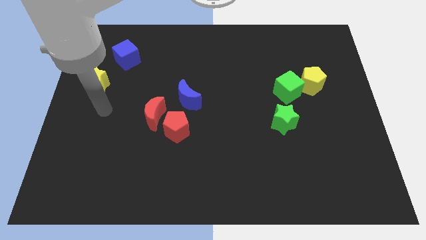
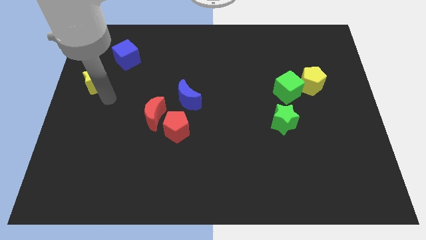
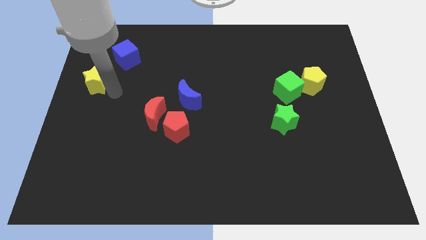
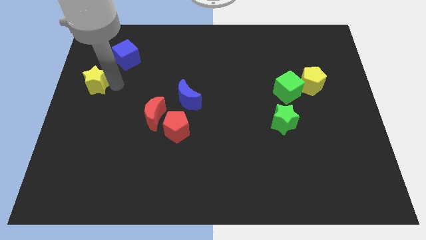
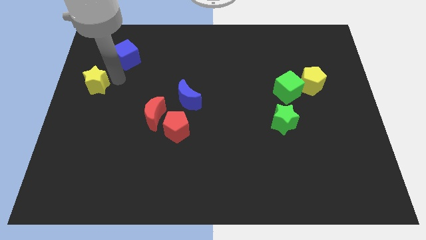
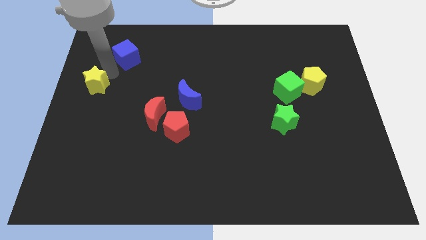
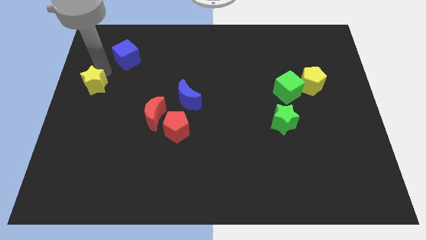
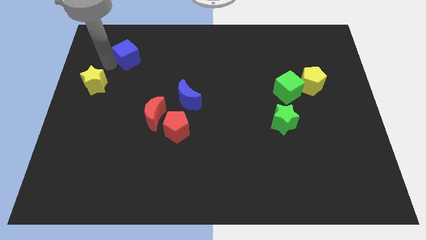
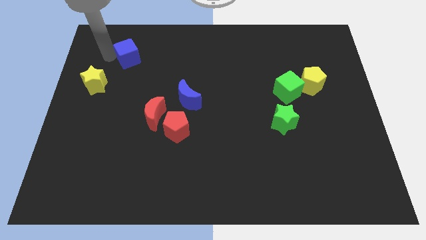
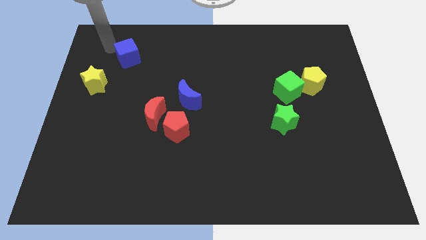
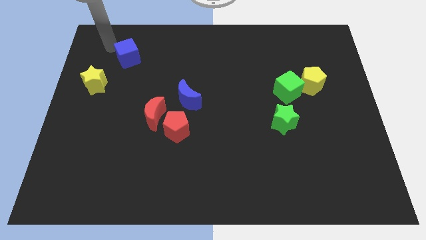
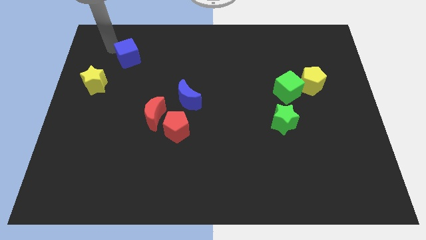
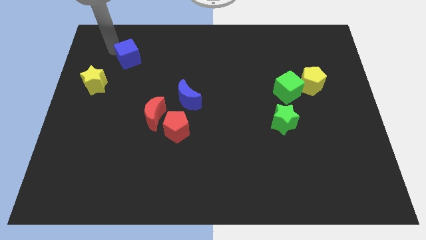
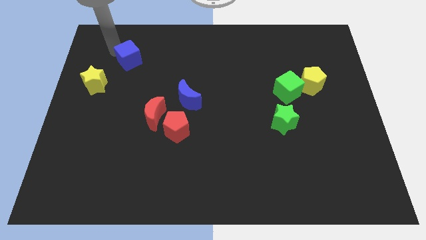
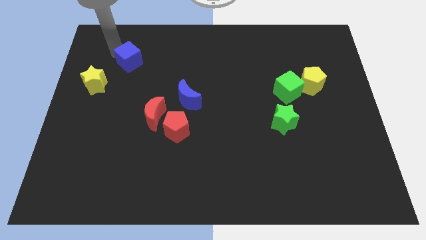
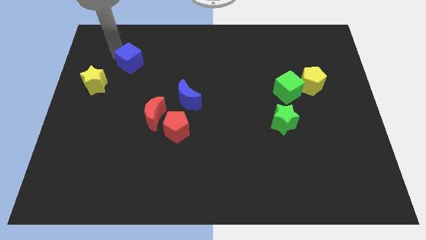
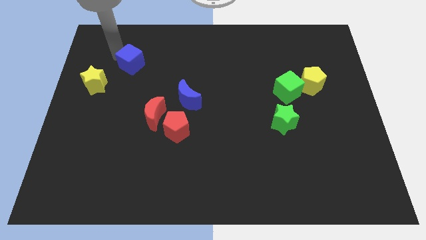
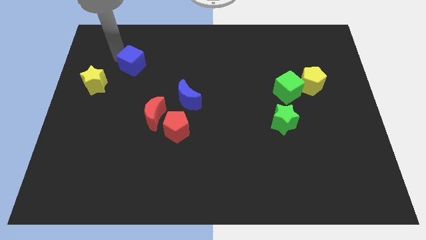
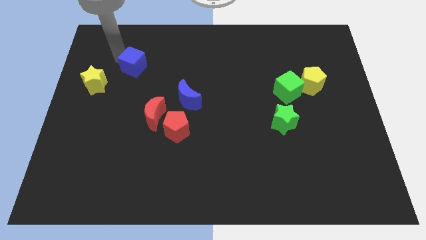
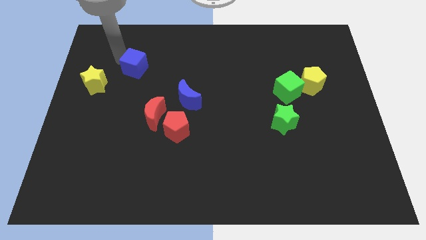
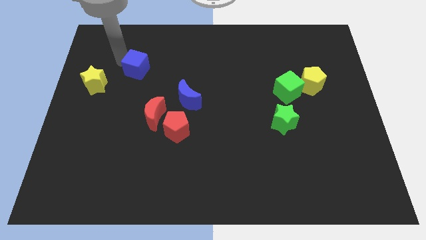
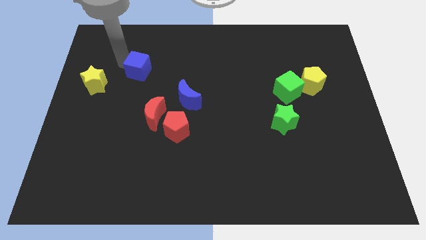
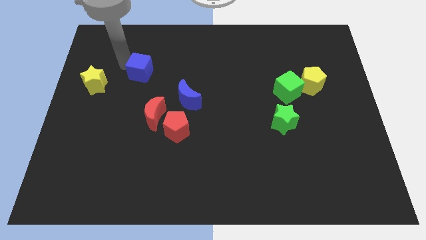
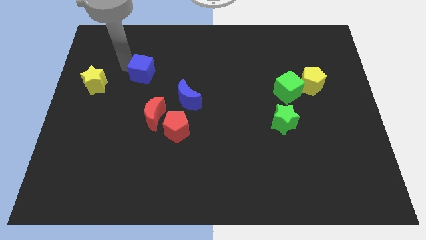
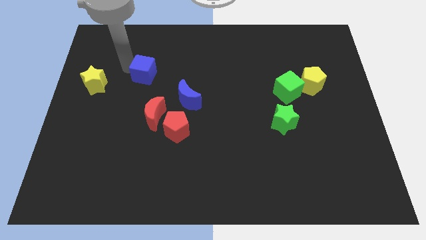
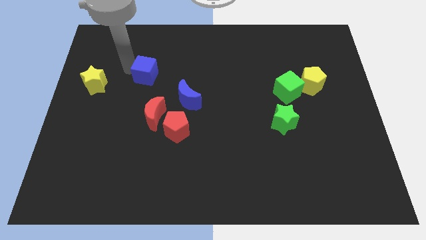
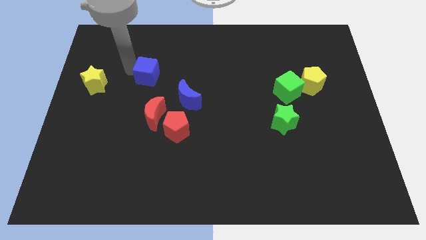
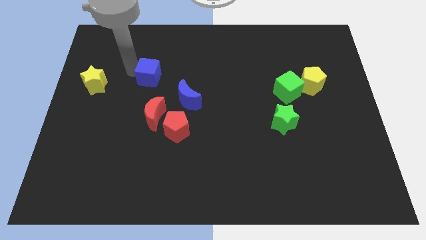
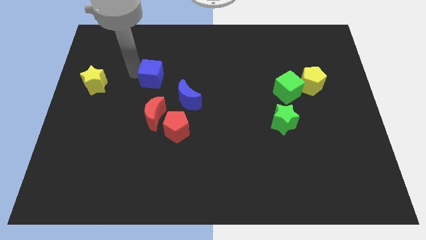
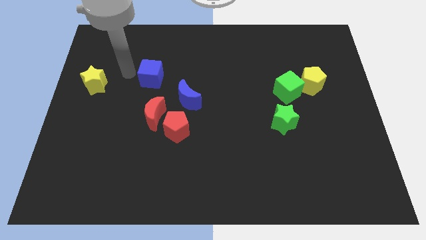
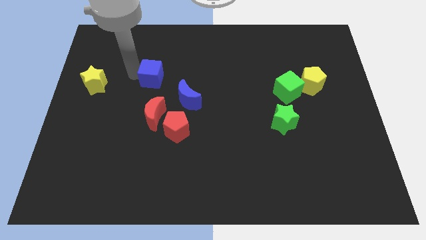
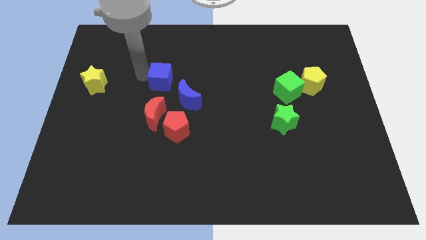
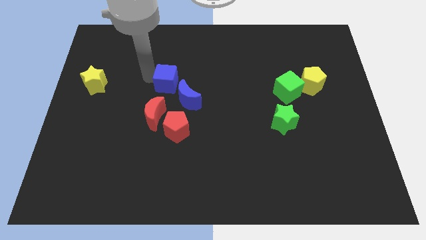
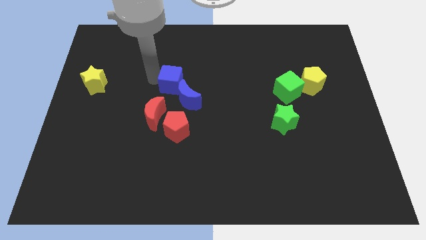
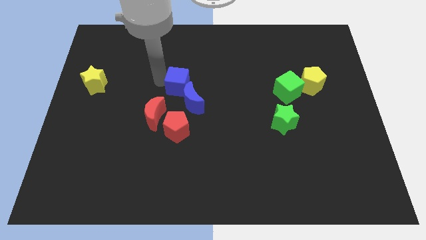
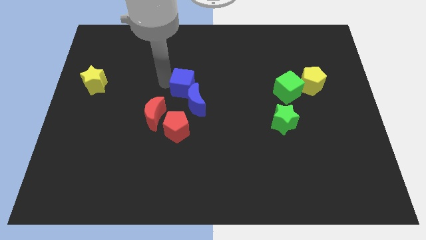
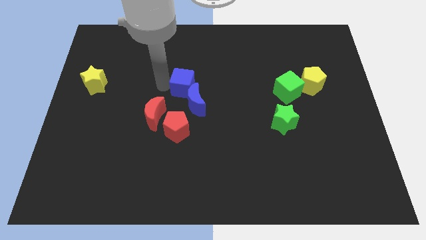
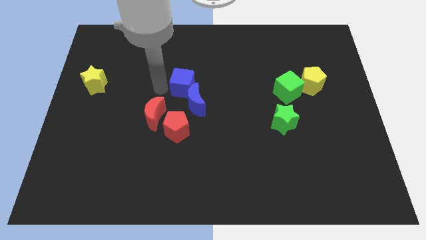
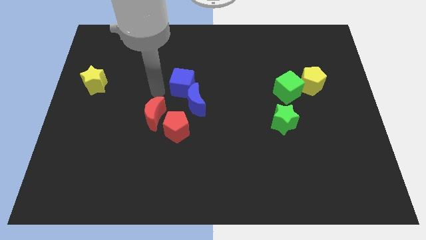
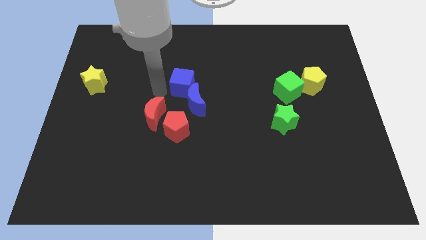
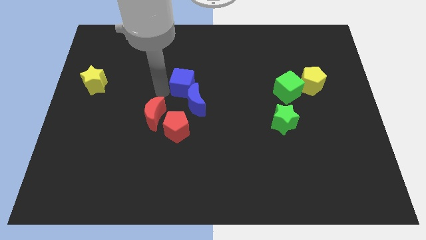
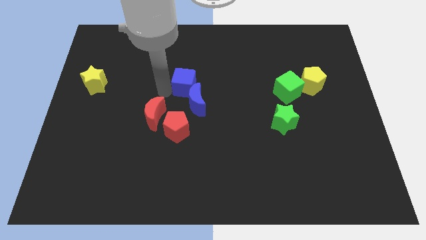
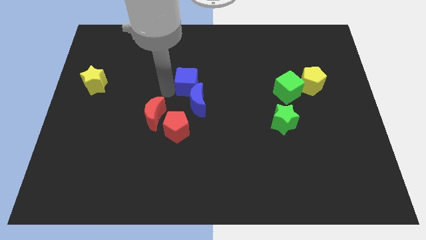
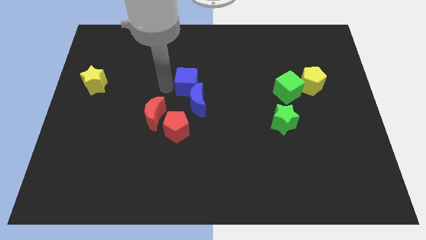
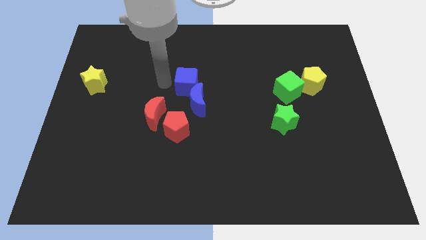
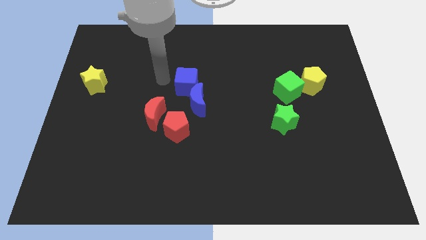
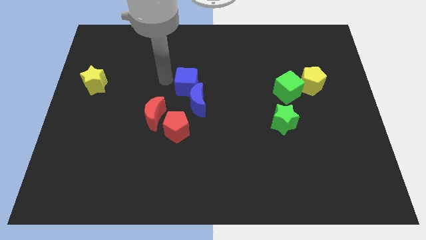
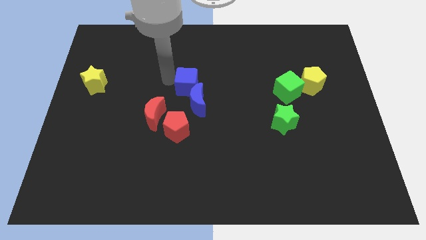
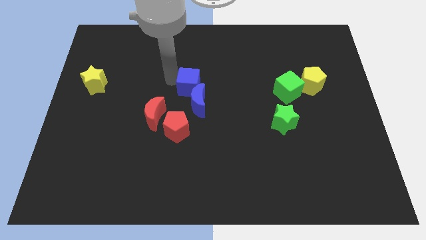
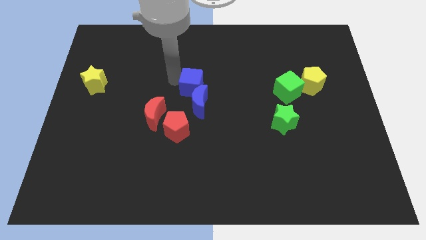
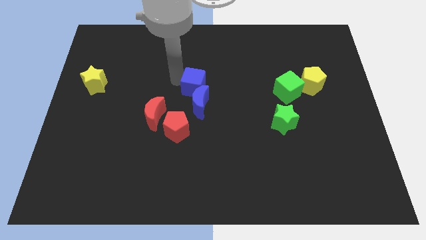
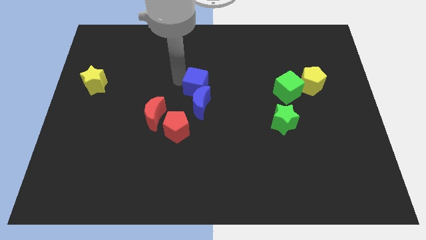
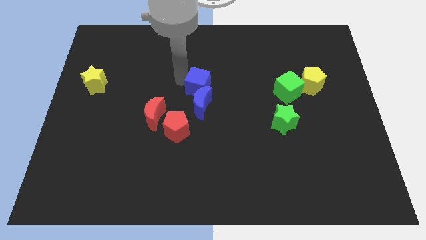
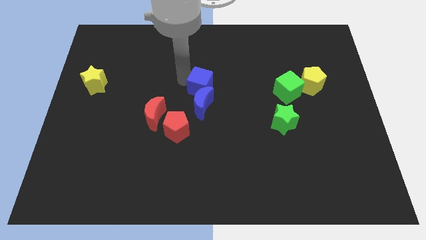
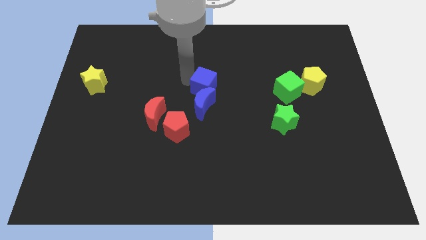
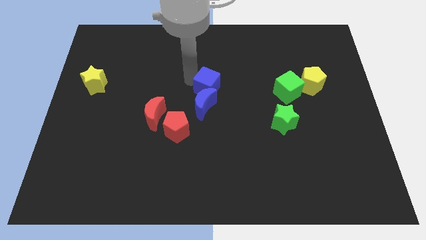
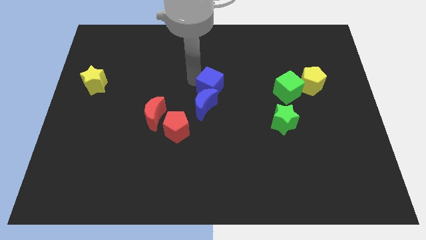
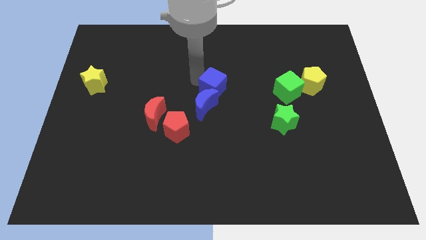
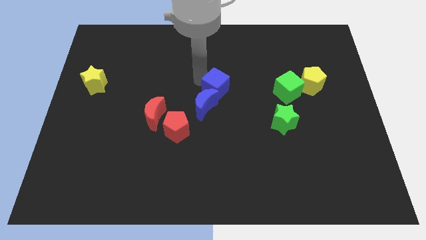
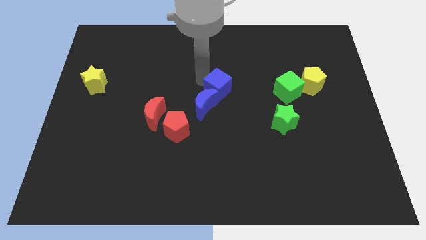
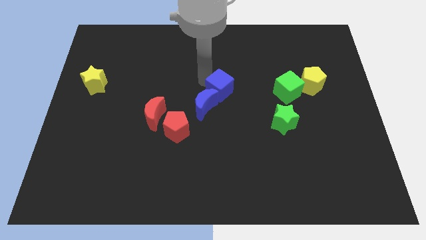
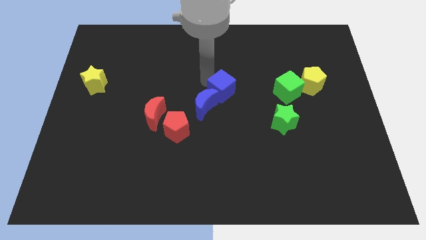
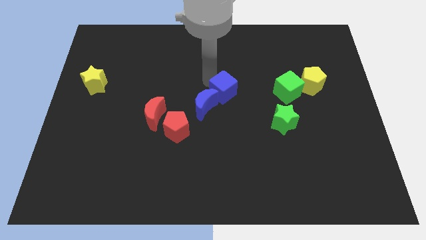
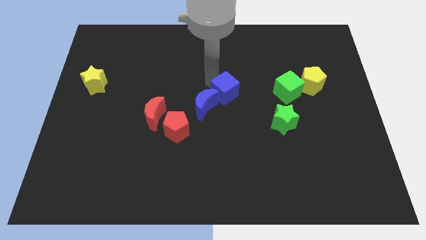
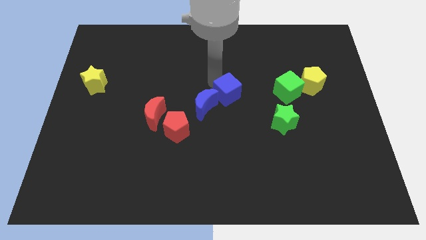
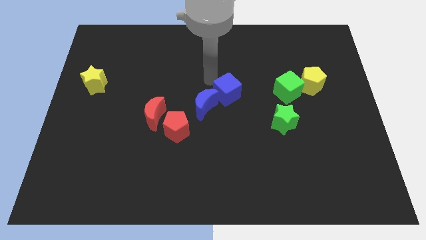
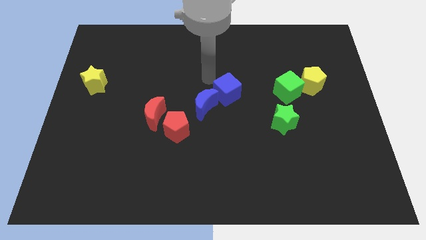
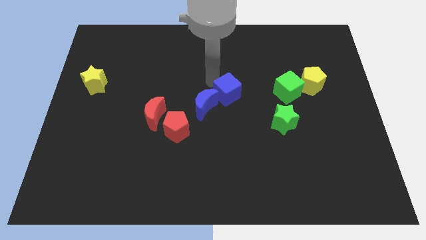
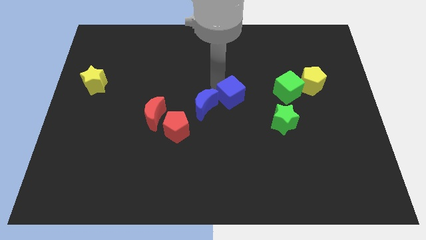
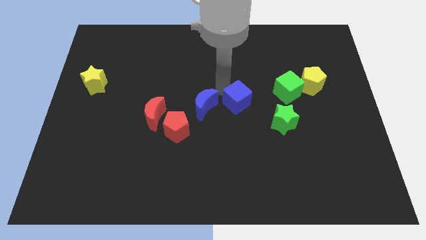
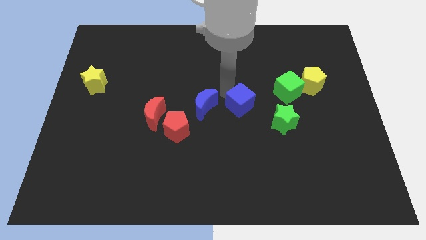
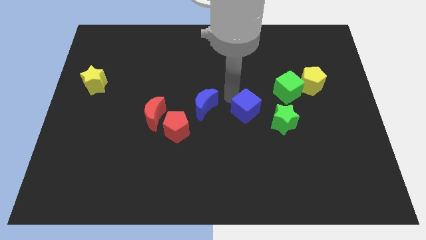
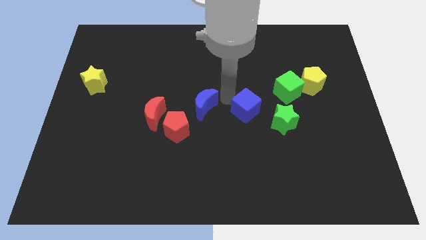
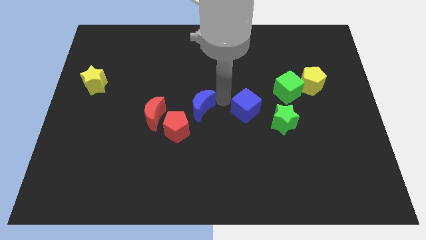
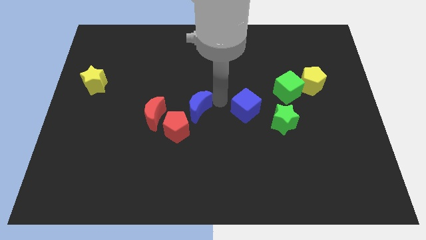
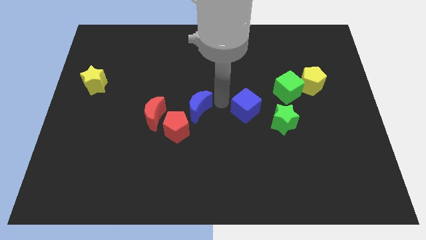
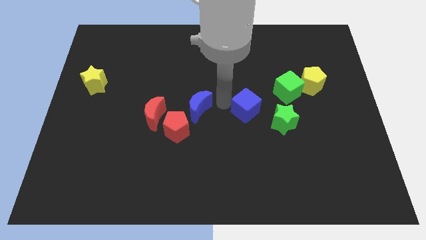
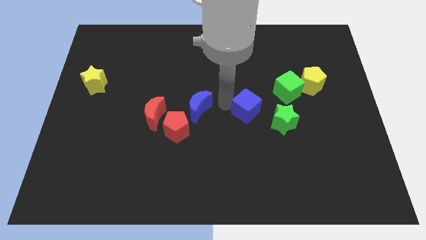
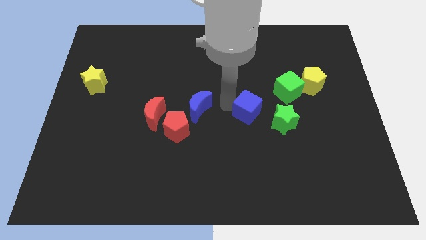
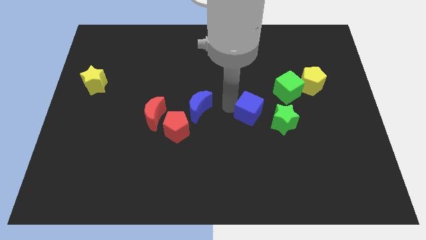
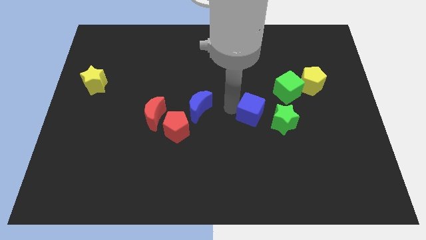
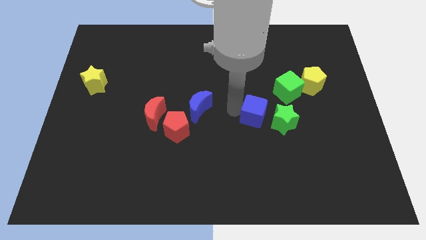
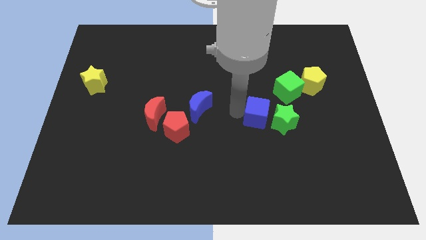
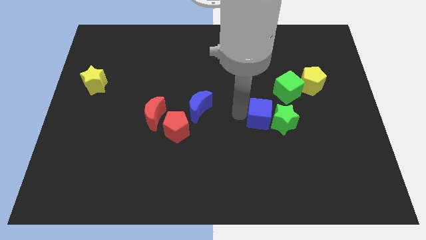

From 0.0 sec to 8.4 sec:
move the blue cube close to the green star
